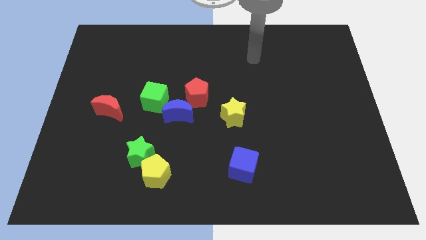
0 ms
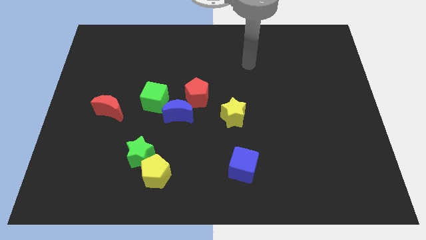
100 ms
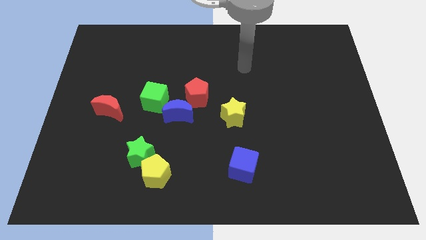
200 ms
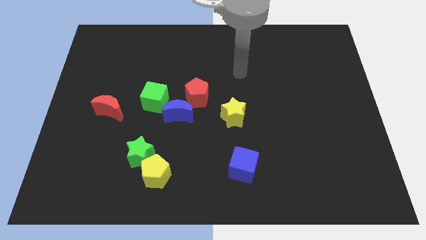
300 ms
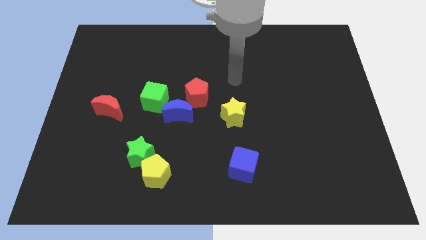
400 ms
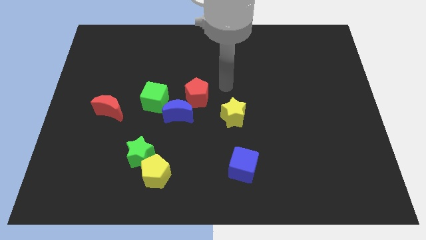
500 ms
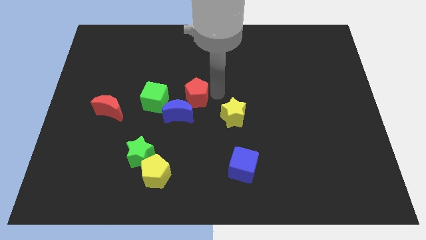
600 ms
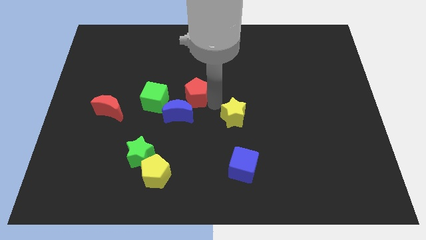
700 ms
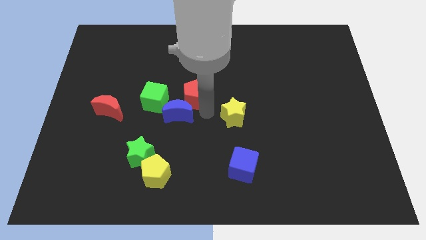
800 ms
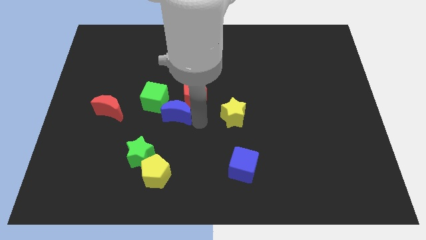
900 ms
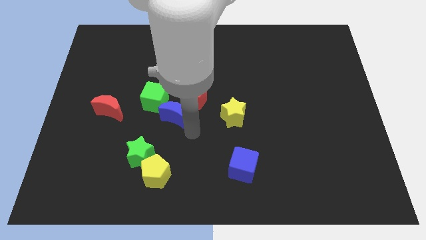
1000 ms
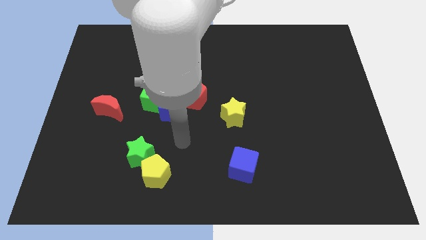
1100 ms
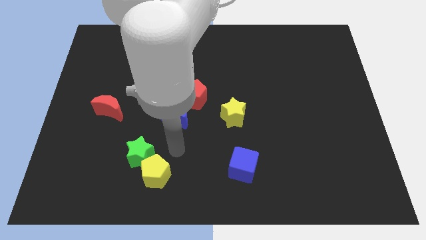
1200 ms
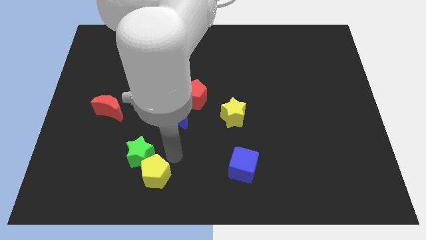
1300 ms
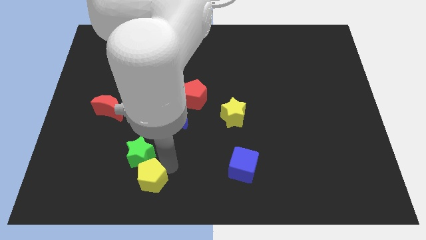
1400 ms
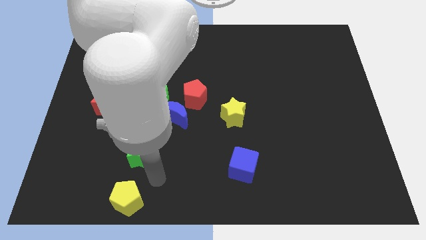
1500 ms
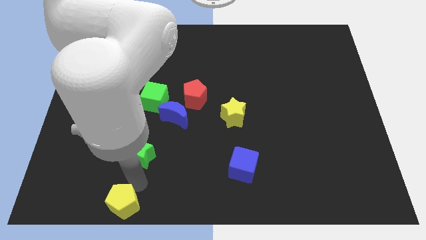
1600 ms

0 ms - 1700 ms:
separate the green star from the yellow pentagon

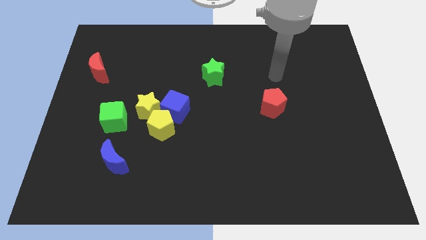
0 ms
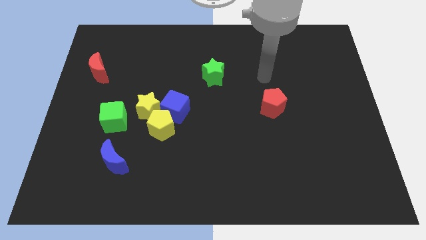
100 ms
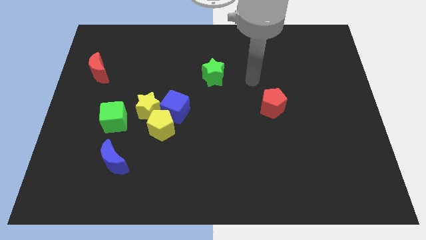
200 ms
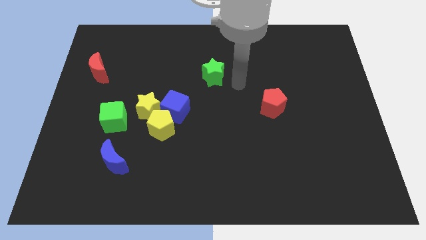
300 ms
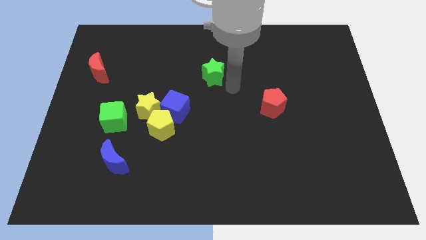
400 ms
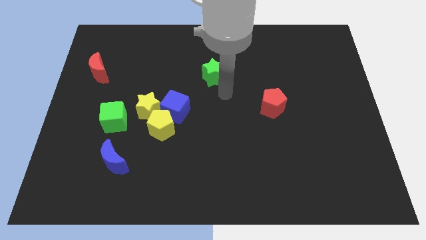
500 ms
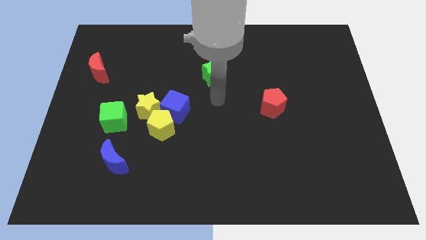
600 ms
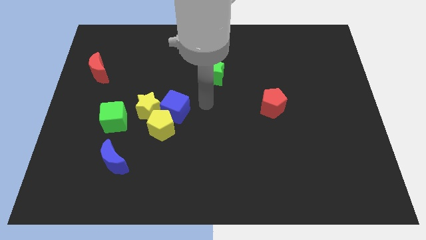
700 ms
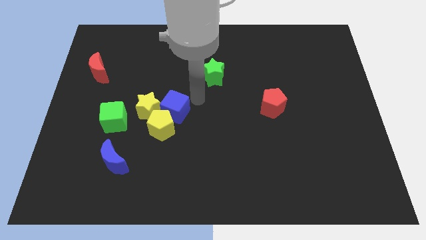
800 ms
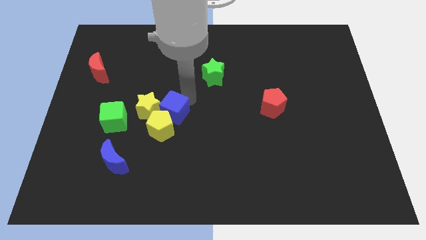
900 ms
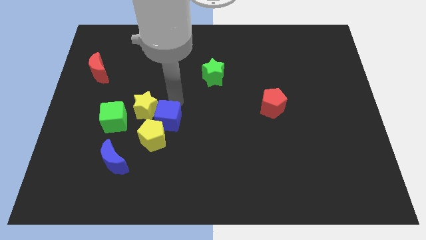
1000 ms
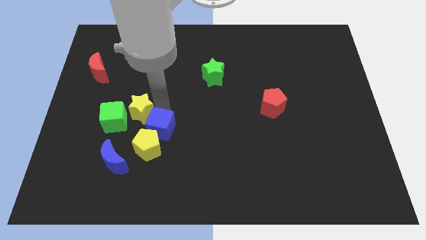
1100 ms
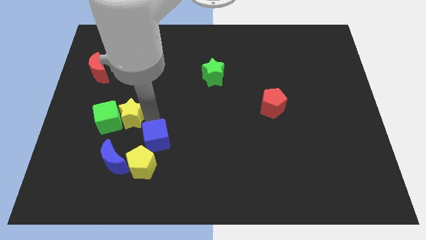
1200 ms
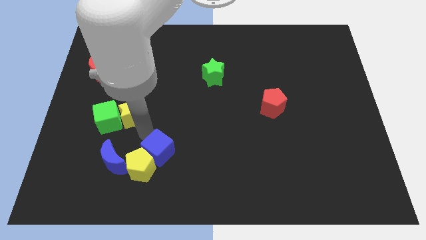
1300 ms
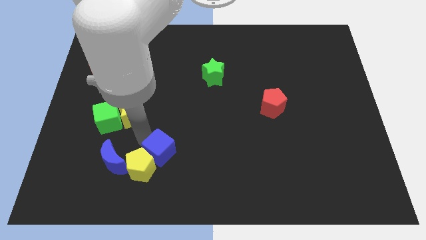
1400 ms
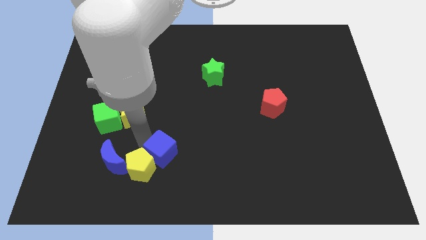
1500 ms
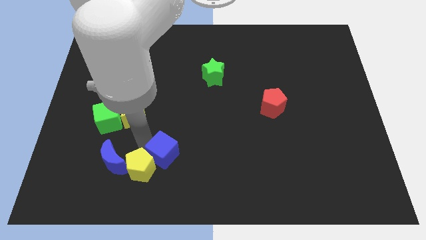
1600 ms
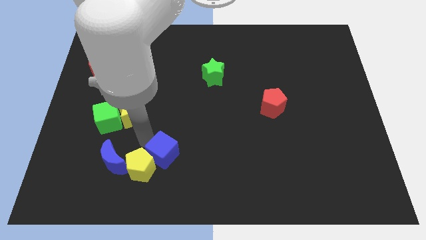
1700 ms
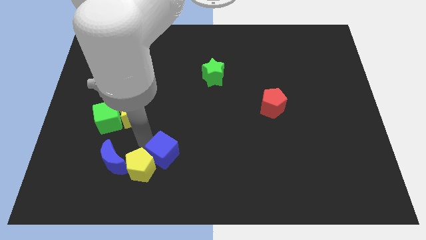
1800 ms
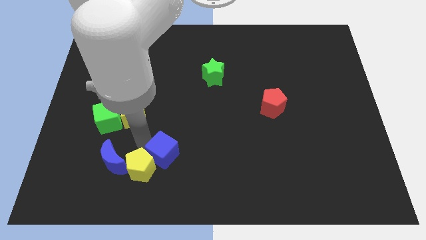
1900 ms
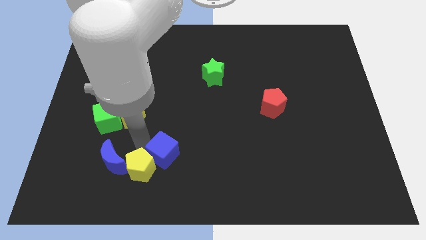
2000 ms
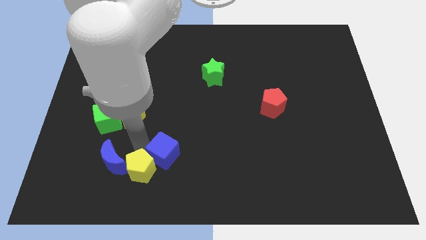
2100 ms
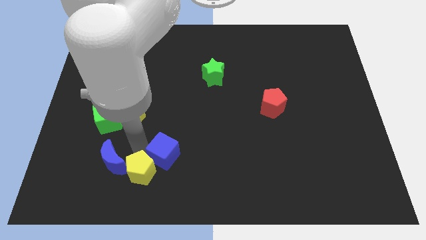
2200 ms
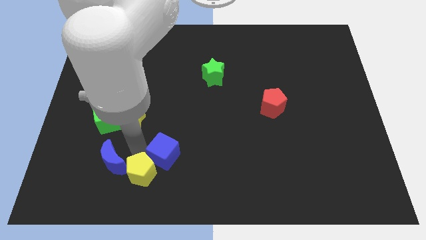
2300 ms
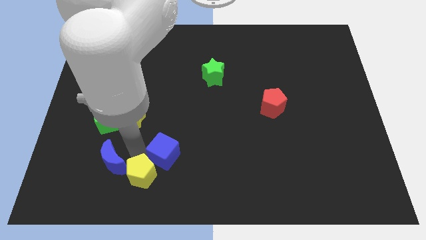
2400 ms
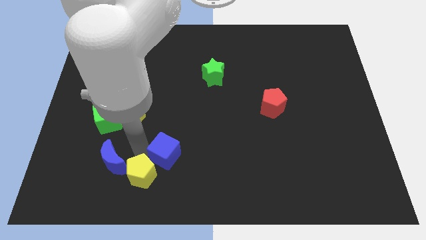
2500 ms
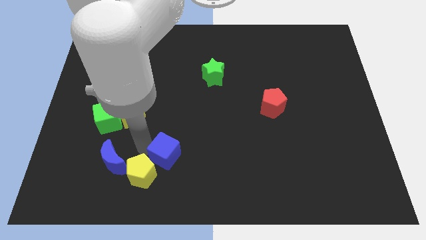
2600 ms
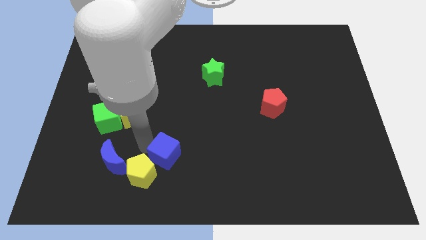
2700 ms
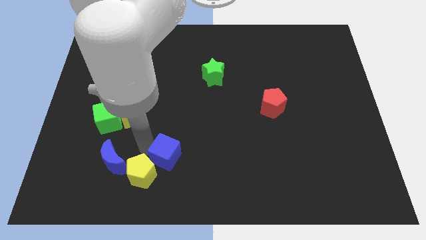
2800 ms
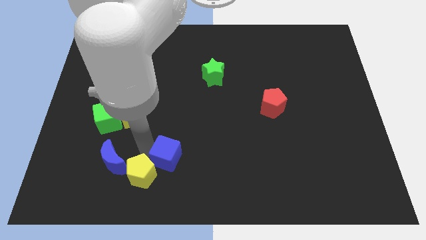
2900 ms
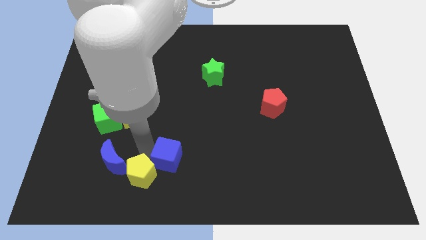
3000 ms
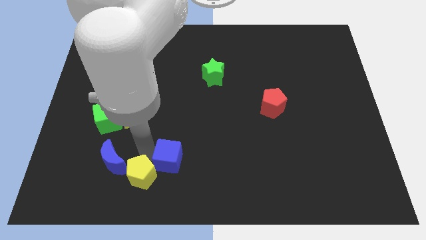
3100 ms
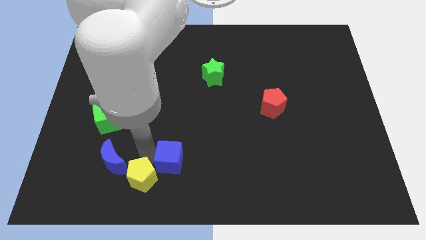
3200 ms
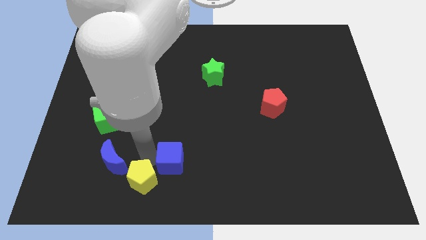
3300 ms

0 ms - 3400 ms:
separate the yellow pentagon from the blue cube and yellow star

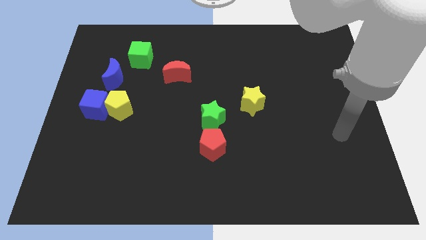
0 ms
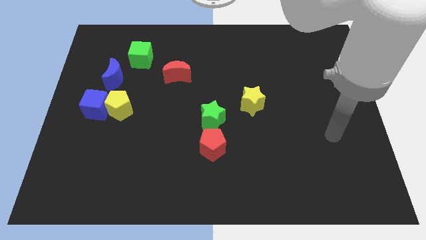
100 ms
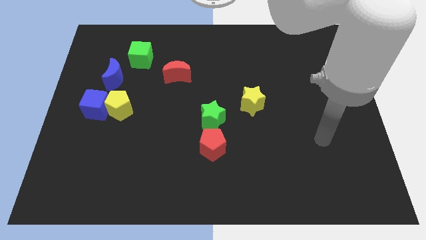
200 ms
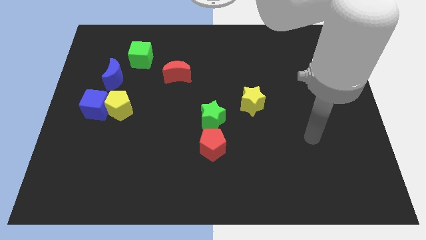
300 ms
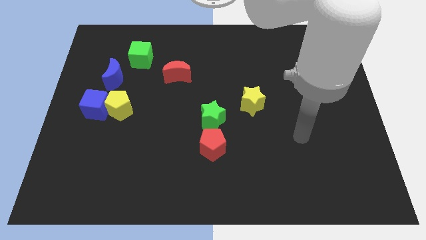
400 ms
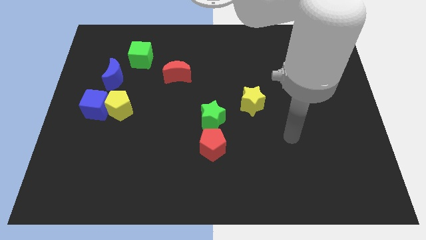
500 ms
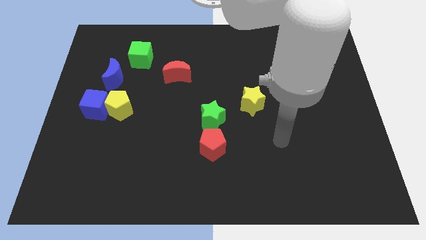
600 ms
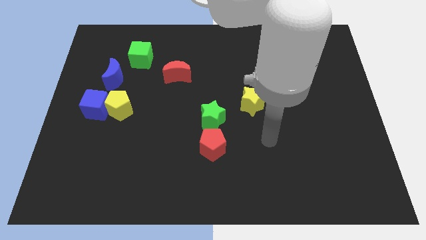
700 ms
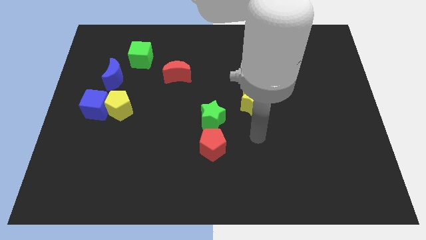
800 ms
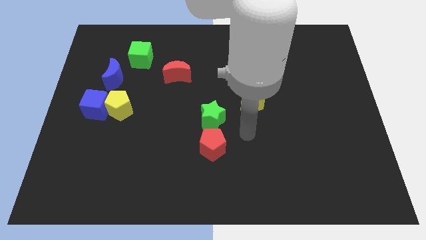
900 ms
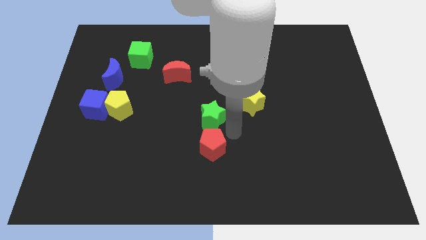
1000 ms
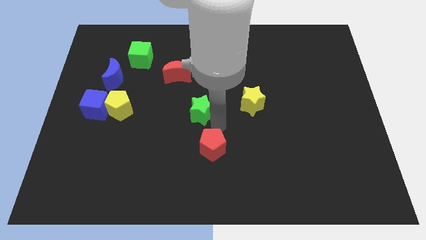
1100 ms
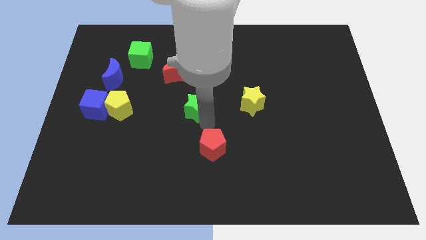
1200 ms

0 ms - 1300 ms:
move the red pentagon away from the green star

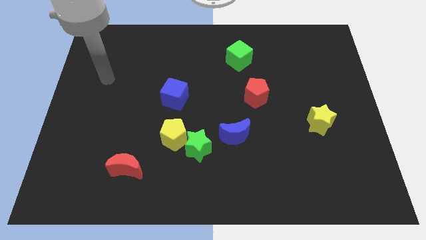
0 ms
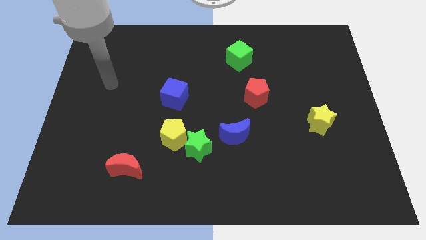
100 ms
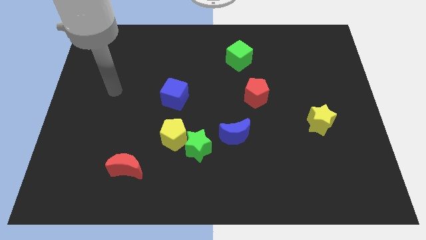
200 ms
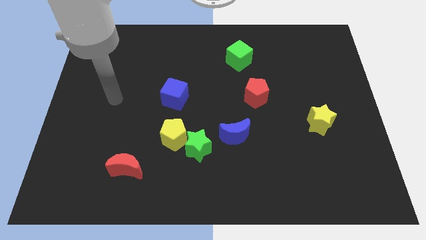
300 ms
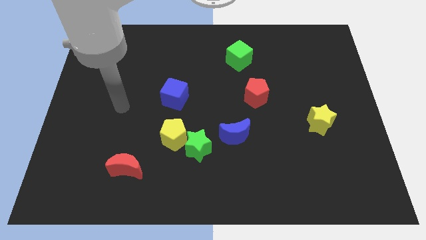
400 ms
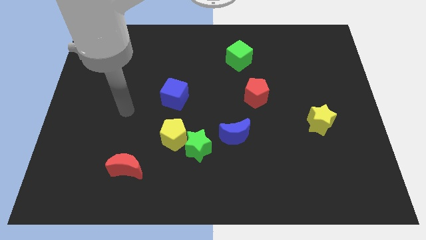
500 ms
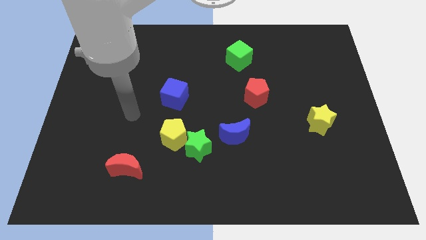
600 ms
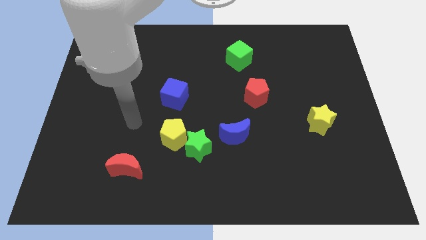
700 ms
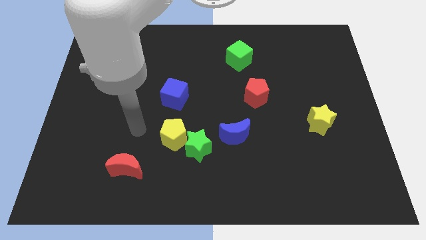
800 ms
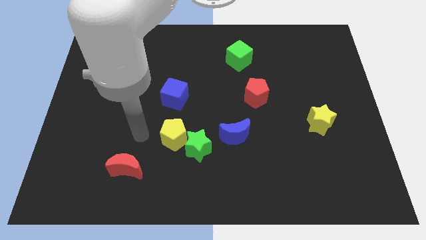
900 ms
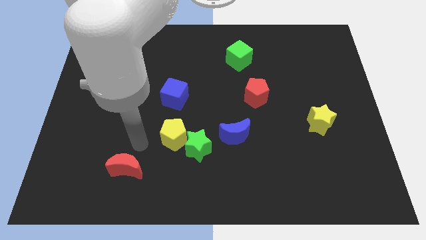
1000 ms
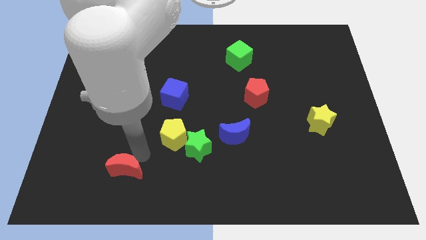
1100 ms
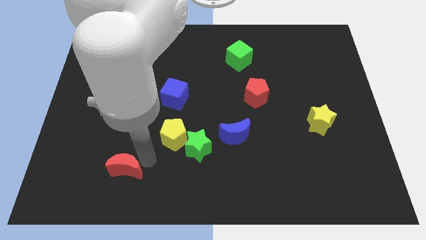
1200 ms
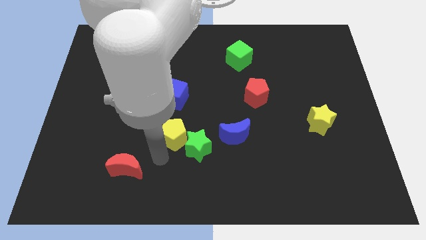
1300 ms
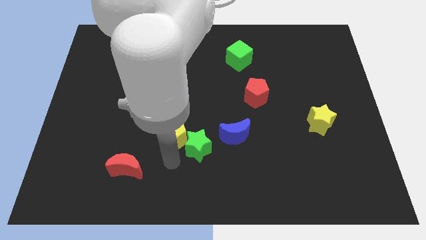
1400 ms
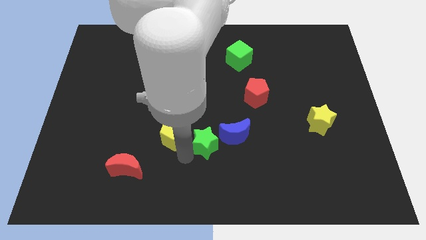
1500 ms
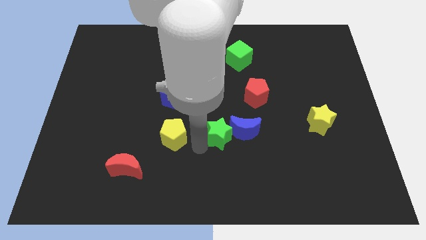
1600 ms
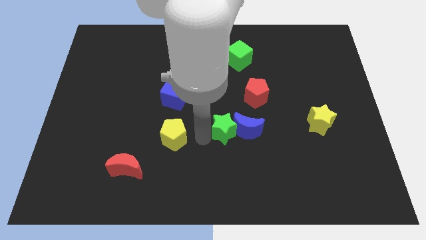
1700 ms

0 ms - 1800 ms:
move the yellow pentagon away from the green star

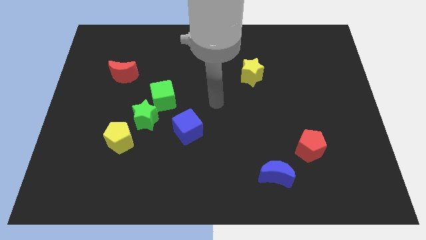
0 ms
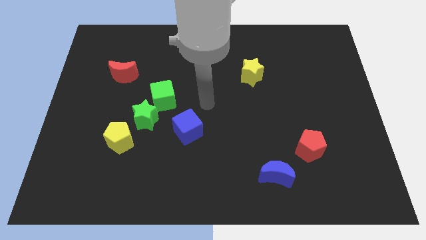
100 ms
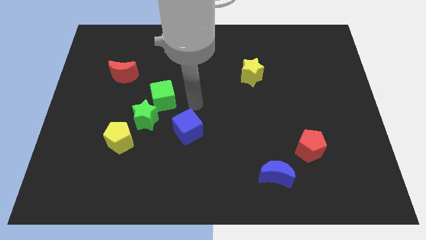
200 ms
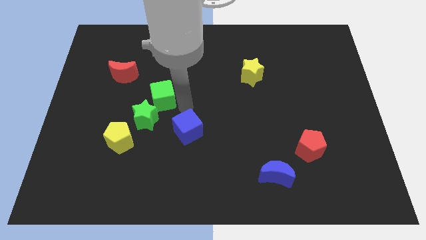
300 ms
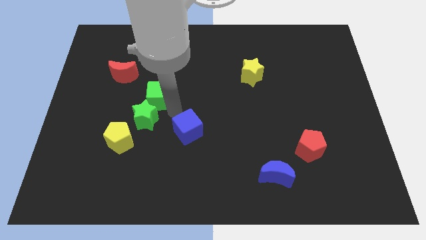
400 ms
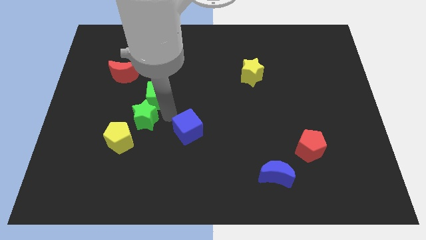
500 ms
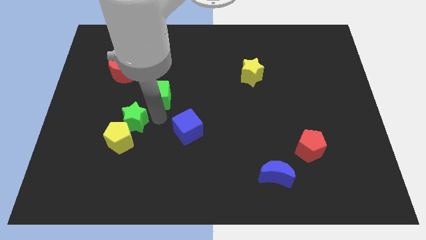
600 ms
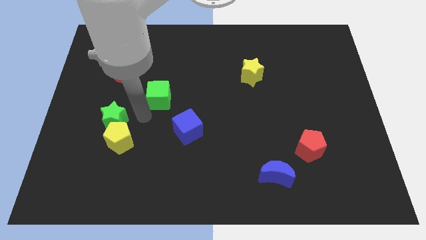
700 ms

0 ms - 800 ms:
move the green cube away from the green star
